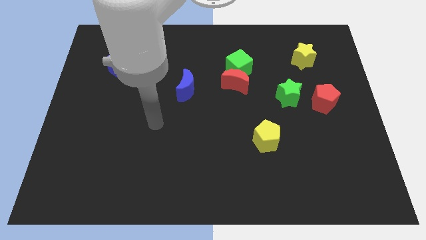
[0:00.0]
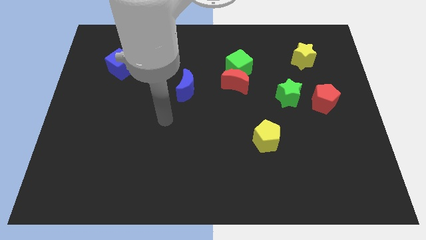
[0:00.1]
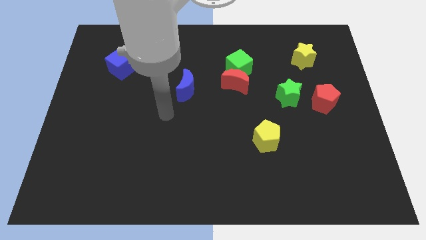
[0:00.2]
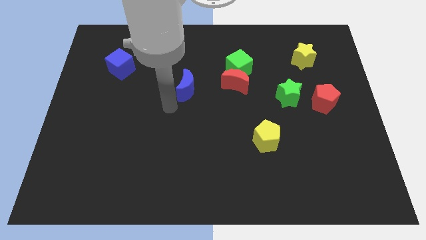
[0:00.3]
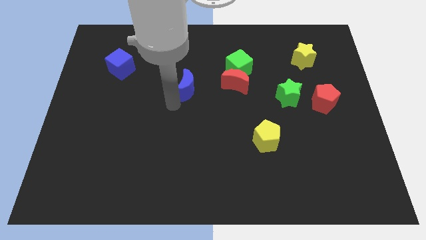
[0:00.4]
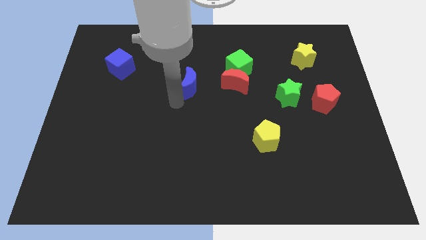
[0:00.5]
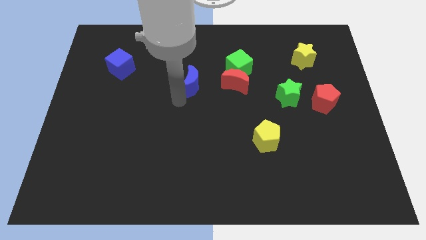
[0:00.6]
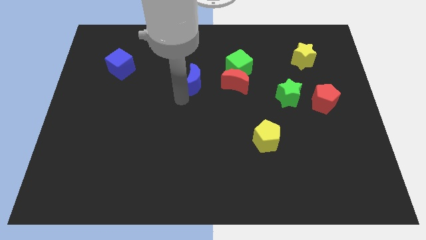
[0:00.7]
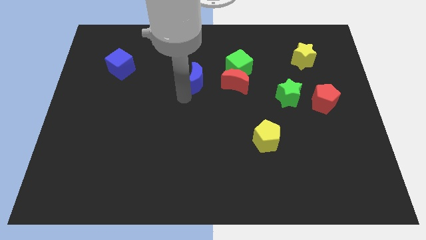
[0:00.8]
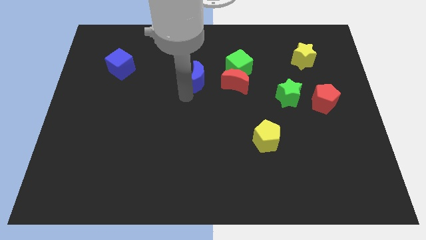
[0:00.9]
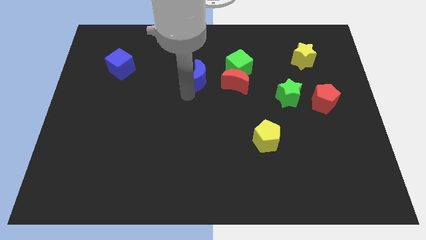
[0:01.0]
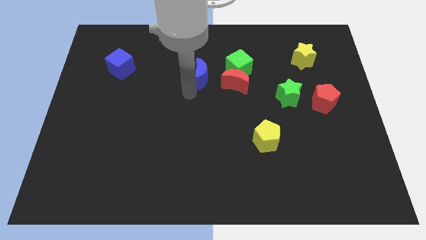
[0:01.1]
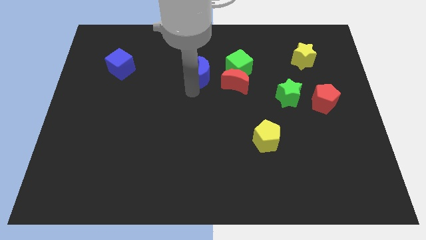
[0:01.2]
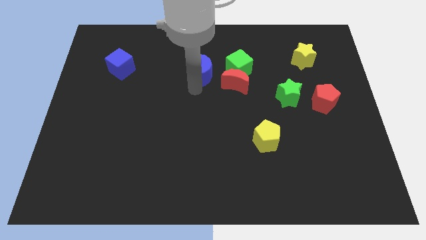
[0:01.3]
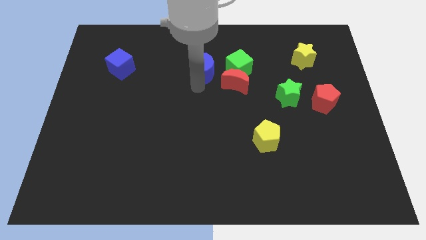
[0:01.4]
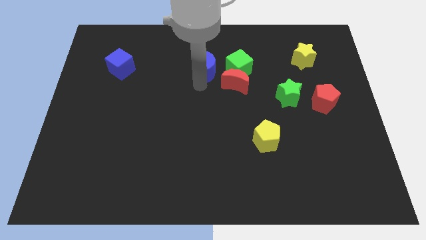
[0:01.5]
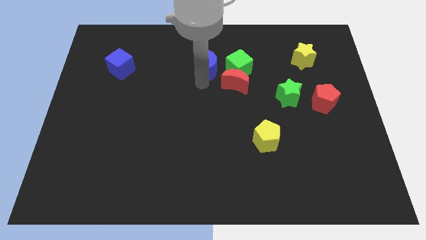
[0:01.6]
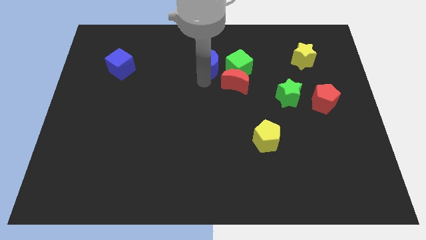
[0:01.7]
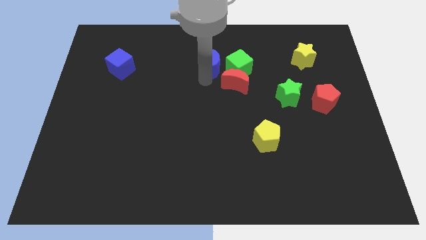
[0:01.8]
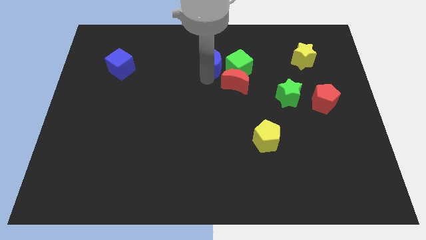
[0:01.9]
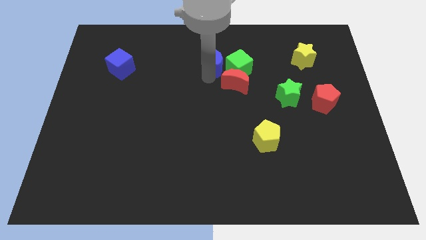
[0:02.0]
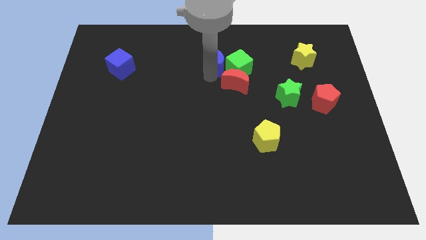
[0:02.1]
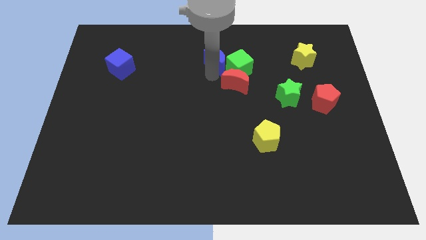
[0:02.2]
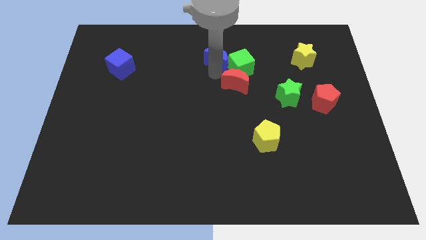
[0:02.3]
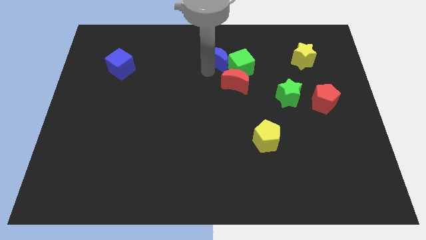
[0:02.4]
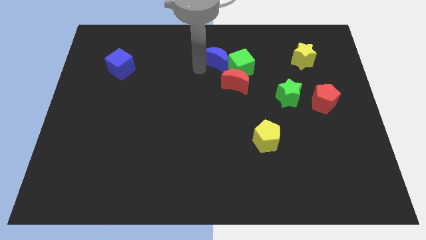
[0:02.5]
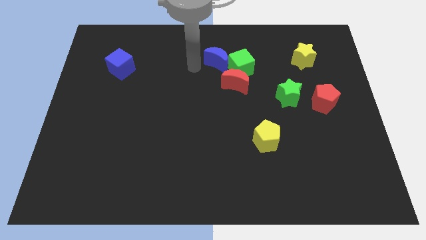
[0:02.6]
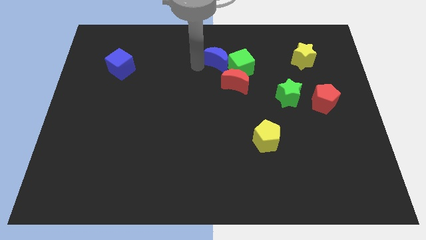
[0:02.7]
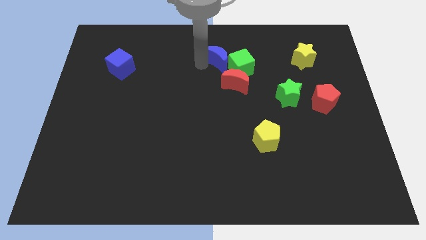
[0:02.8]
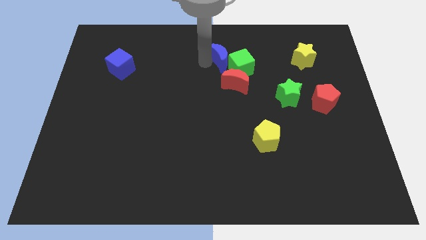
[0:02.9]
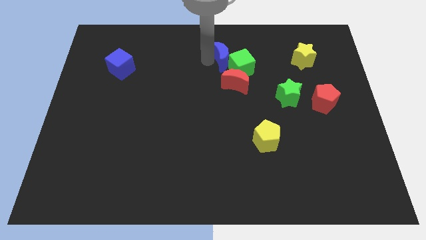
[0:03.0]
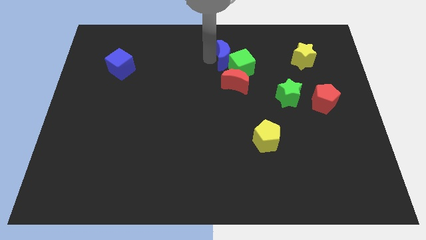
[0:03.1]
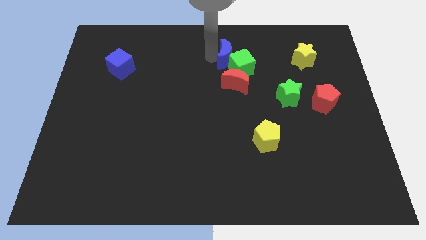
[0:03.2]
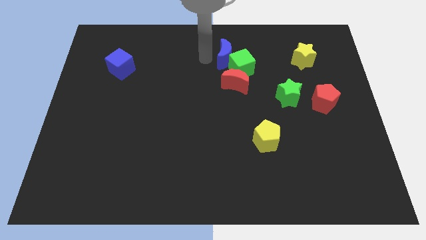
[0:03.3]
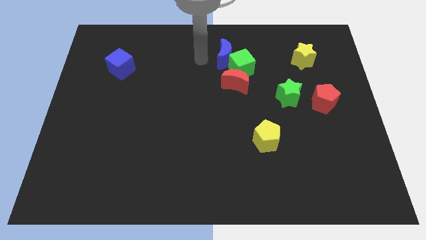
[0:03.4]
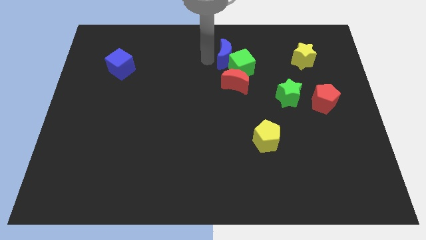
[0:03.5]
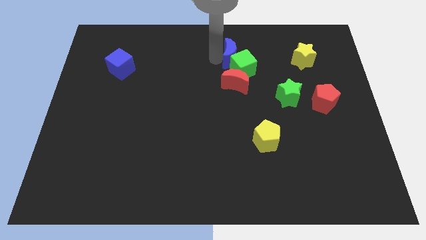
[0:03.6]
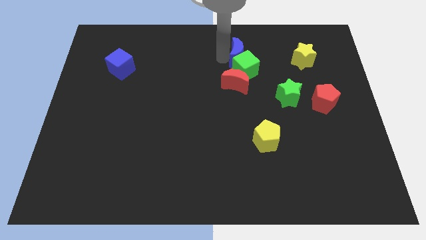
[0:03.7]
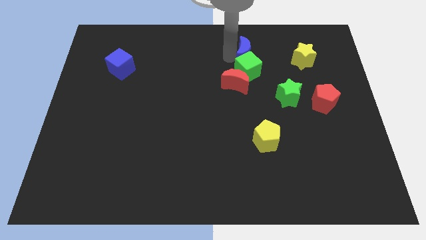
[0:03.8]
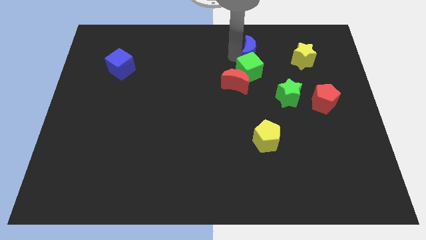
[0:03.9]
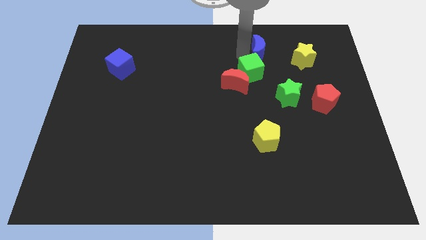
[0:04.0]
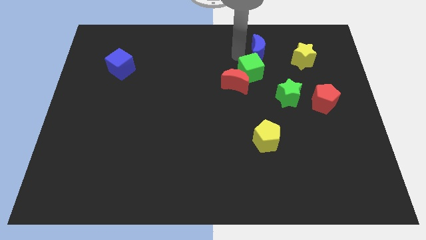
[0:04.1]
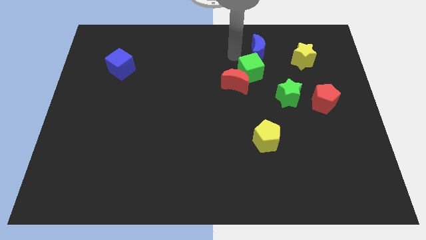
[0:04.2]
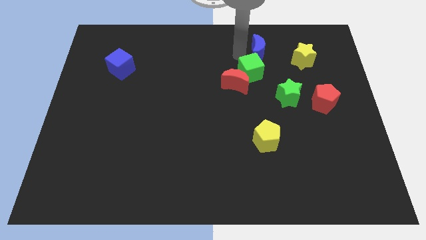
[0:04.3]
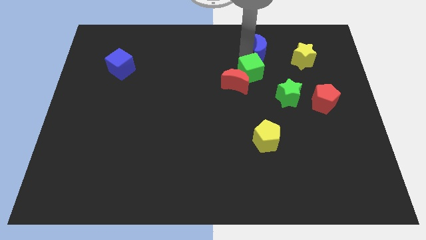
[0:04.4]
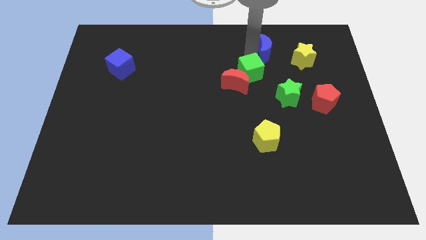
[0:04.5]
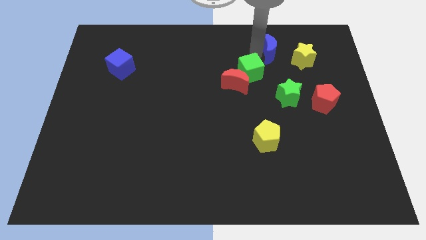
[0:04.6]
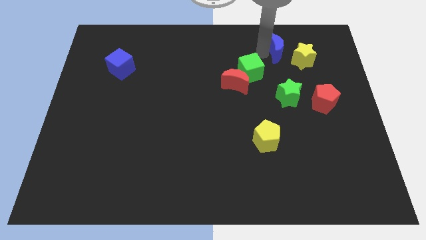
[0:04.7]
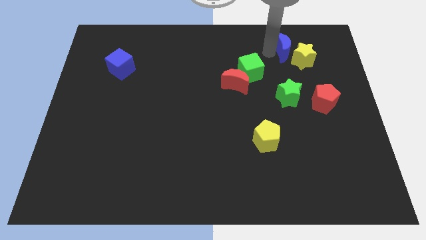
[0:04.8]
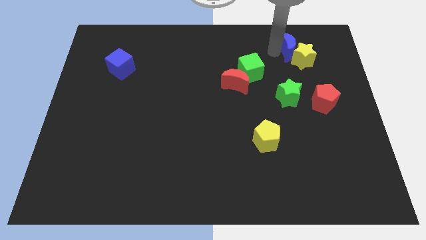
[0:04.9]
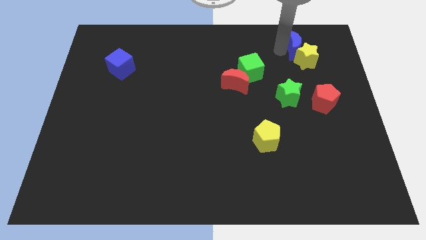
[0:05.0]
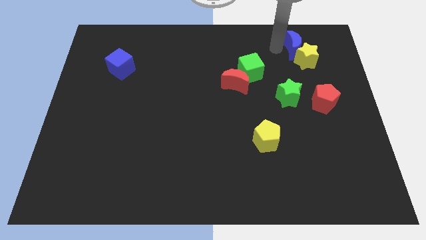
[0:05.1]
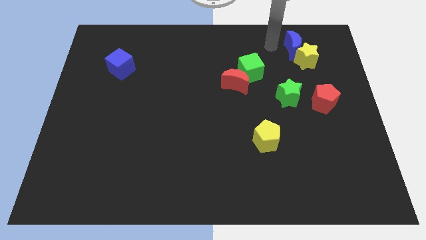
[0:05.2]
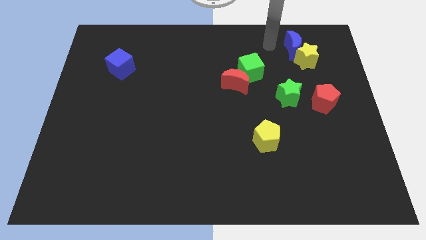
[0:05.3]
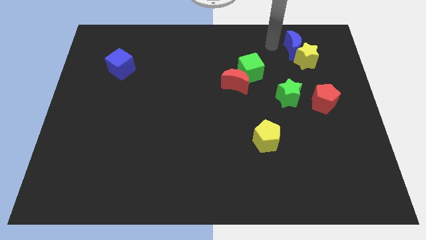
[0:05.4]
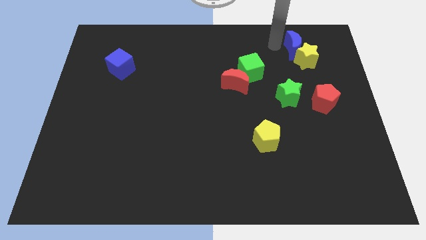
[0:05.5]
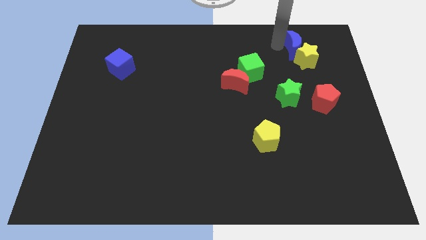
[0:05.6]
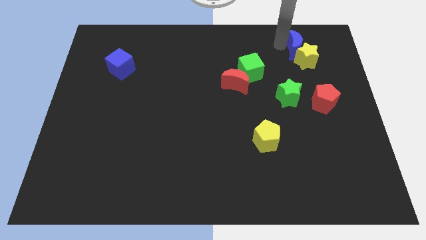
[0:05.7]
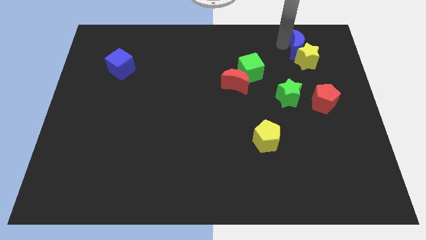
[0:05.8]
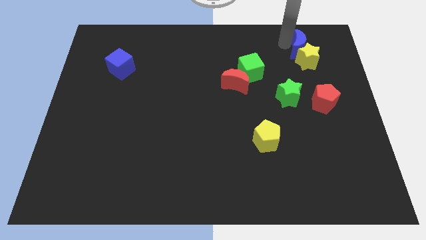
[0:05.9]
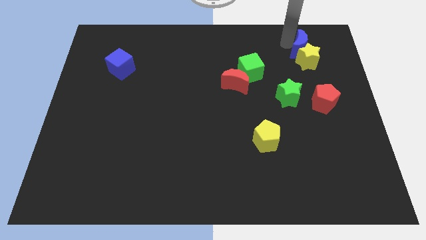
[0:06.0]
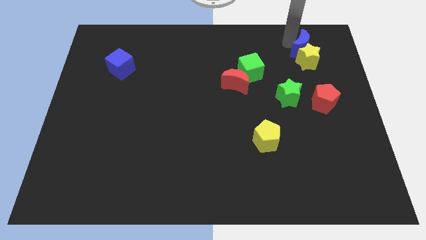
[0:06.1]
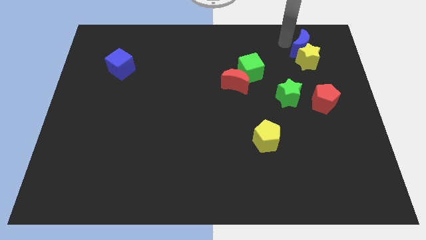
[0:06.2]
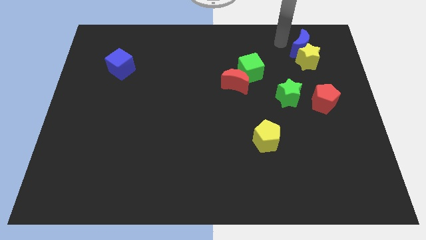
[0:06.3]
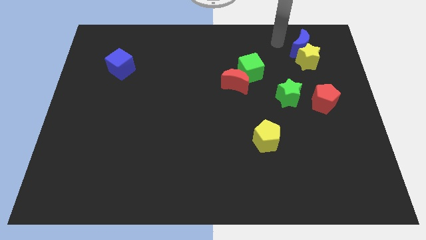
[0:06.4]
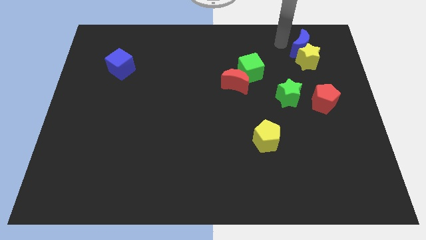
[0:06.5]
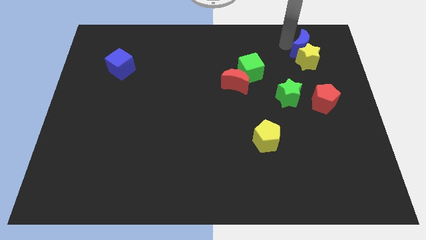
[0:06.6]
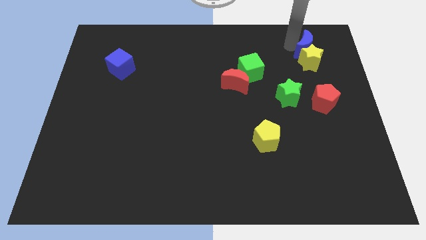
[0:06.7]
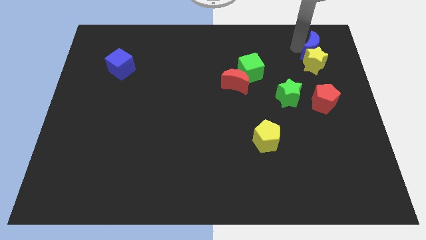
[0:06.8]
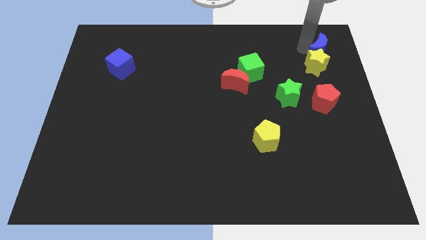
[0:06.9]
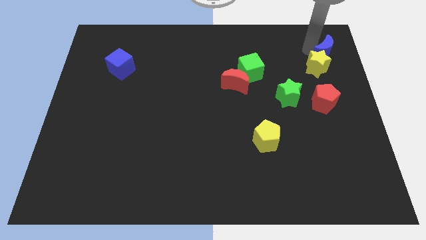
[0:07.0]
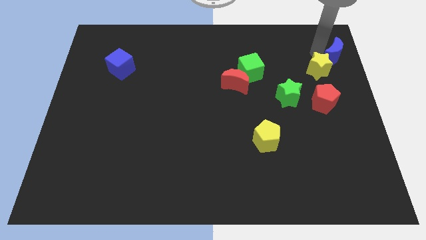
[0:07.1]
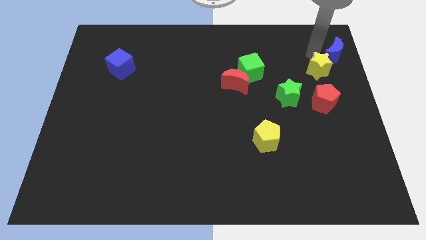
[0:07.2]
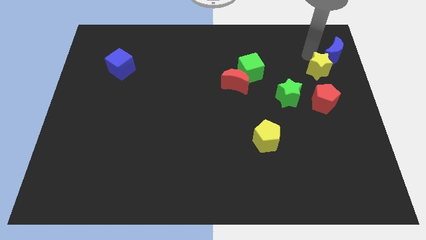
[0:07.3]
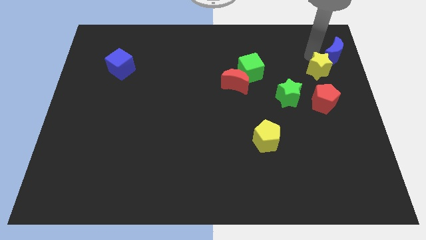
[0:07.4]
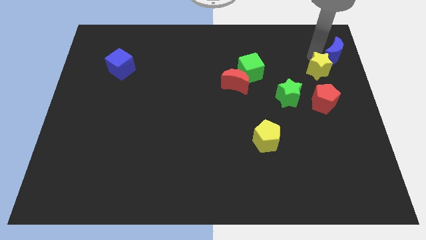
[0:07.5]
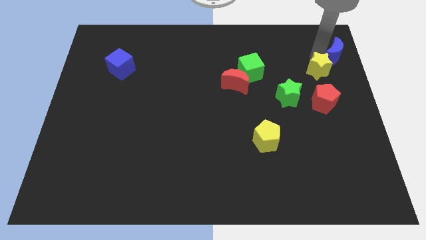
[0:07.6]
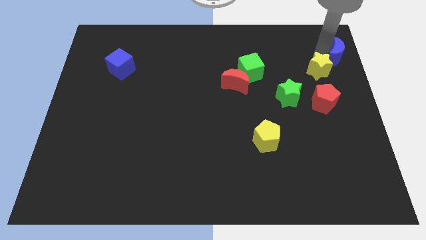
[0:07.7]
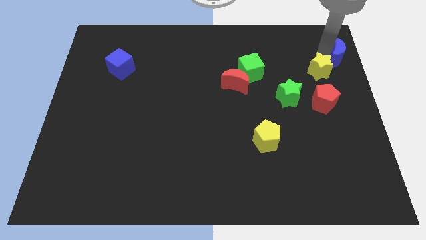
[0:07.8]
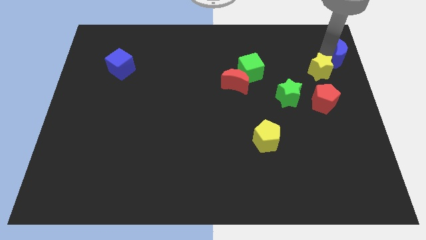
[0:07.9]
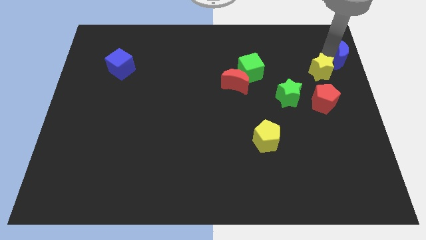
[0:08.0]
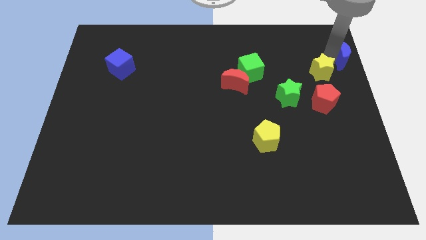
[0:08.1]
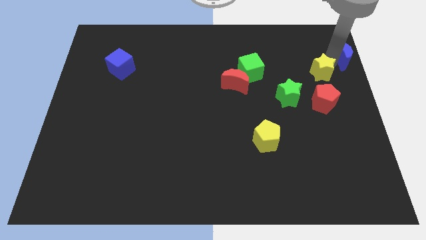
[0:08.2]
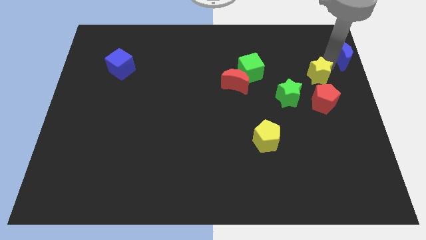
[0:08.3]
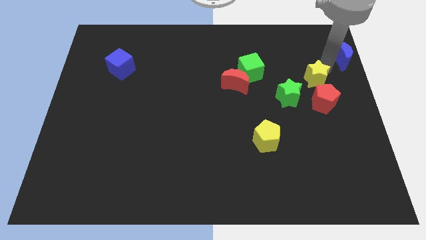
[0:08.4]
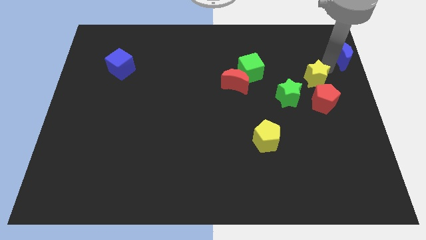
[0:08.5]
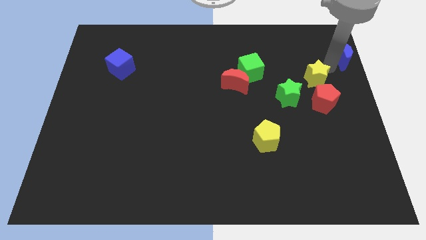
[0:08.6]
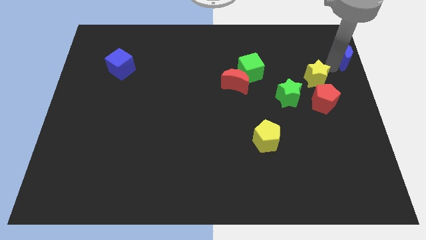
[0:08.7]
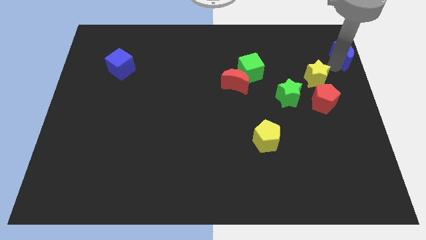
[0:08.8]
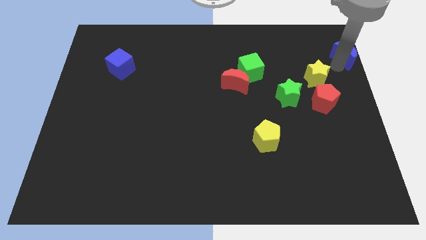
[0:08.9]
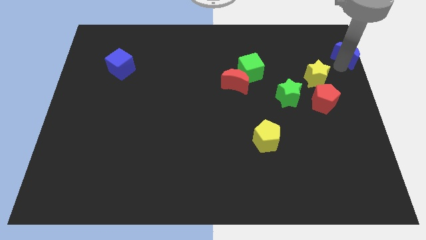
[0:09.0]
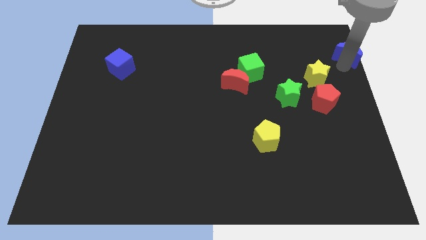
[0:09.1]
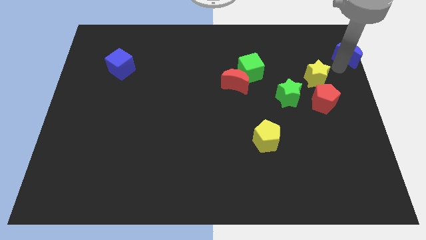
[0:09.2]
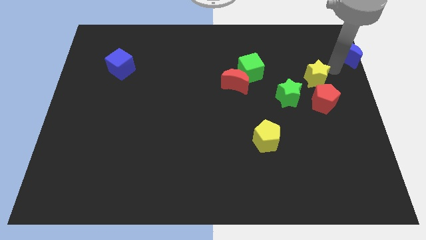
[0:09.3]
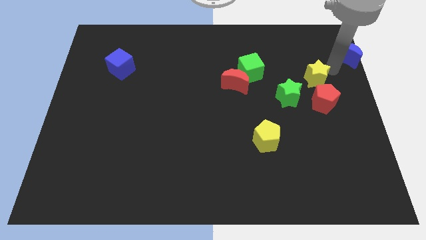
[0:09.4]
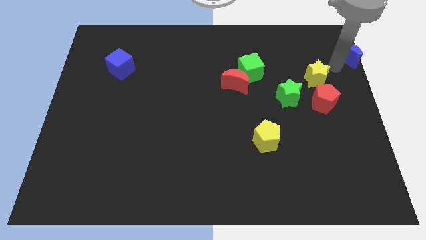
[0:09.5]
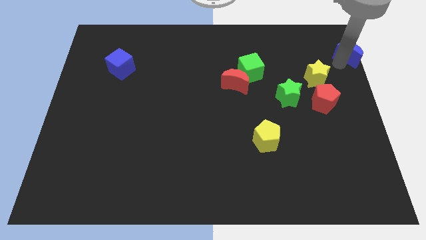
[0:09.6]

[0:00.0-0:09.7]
put the blue moon to the top right corner
